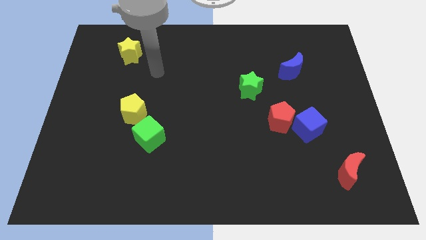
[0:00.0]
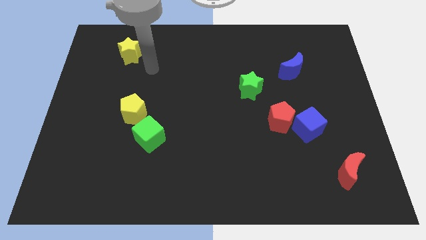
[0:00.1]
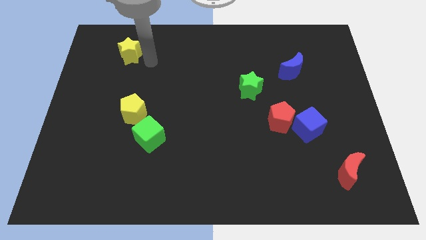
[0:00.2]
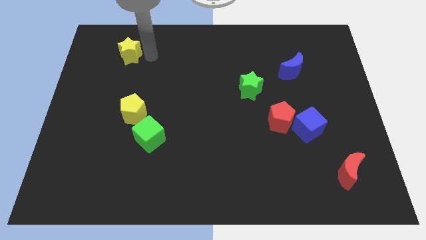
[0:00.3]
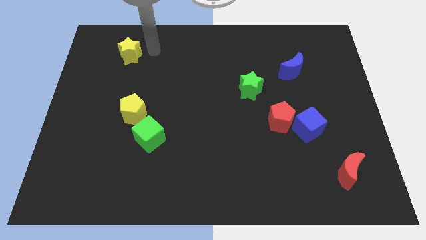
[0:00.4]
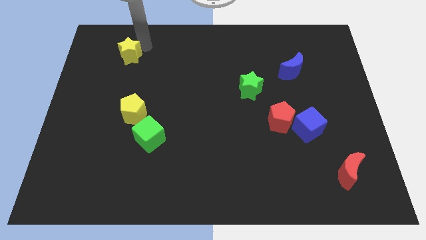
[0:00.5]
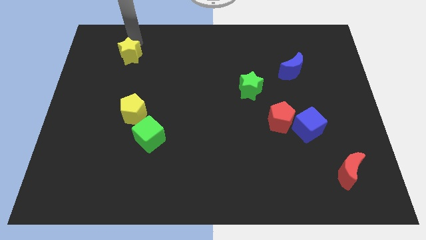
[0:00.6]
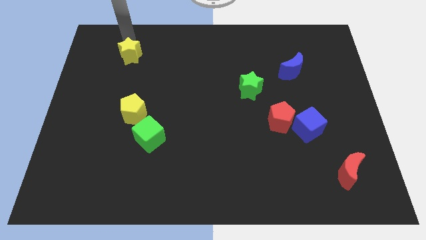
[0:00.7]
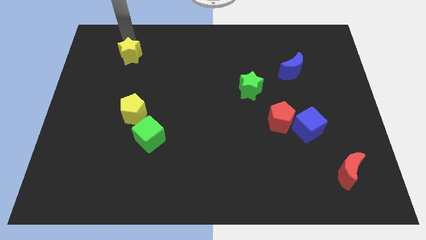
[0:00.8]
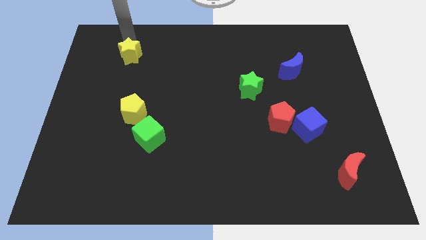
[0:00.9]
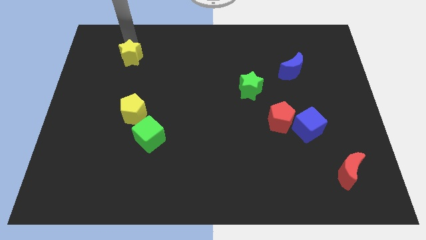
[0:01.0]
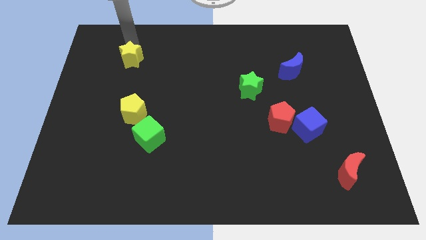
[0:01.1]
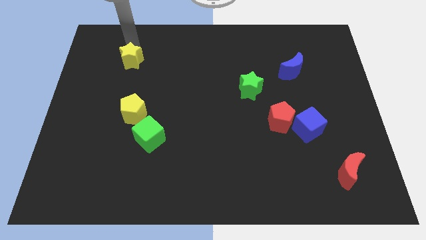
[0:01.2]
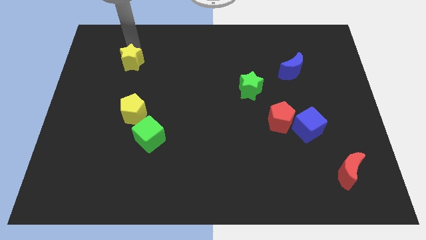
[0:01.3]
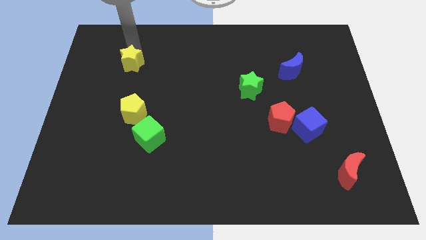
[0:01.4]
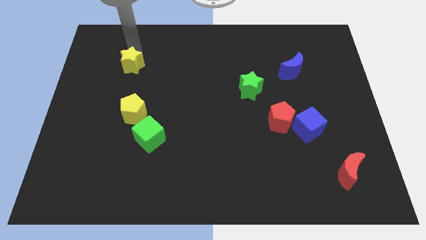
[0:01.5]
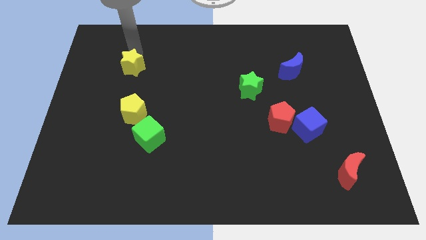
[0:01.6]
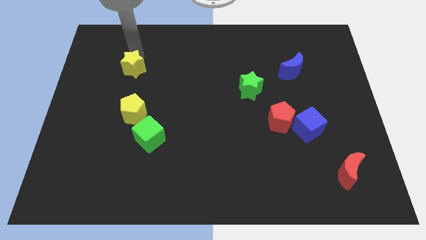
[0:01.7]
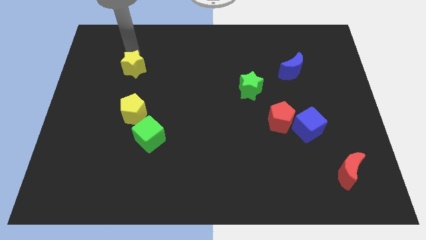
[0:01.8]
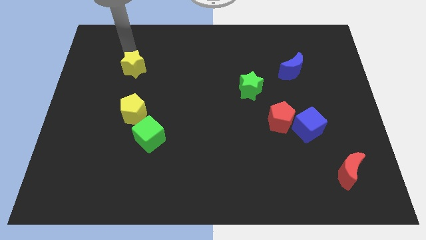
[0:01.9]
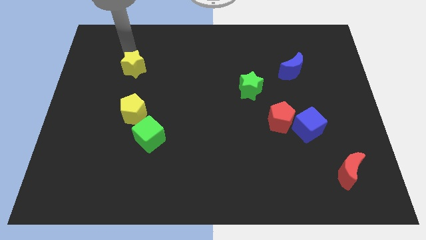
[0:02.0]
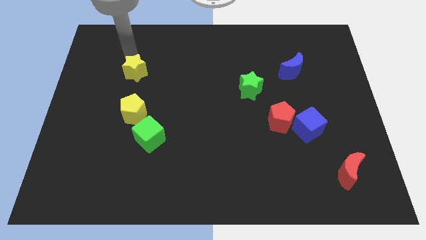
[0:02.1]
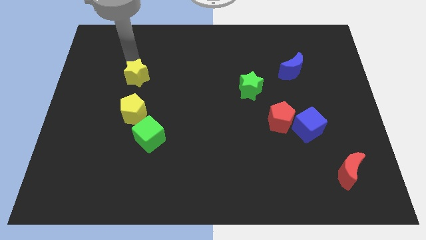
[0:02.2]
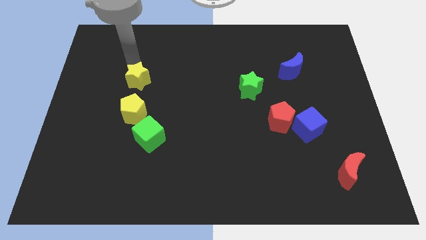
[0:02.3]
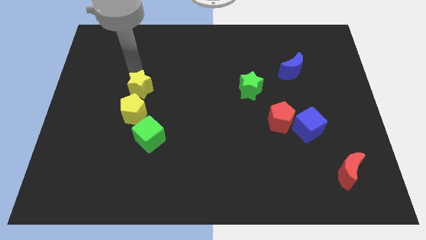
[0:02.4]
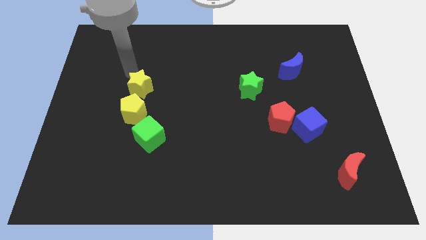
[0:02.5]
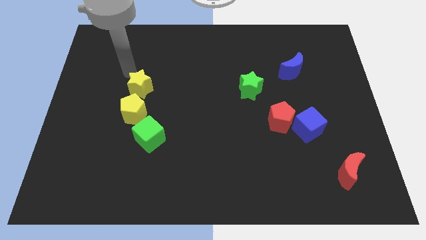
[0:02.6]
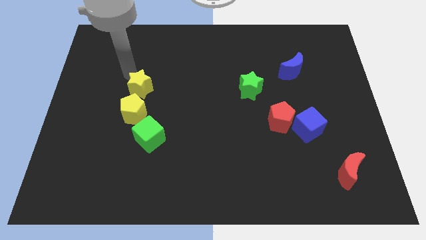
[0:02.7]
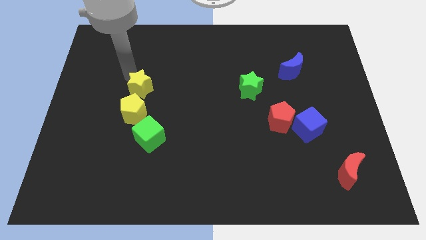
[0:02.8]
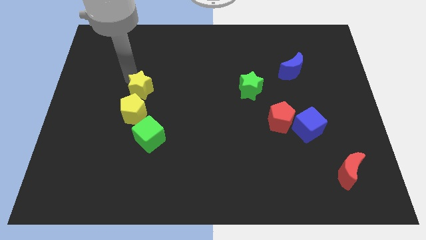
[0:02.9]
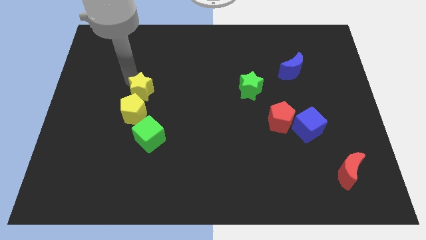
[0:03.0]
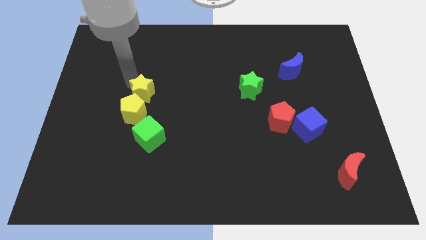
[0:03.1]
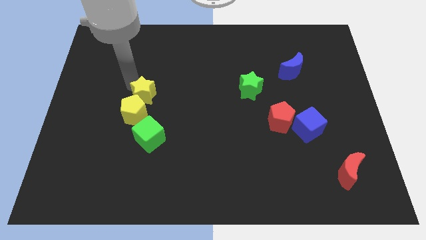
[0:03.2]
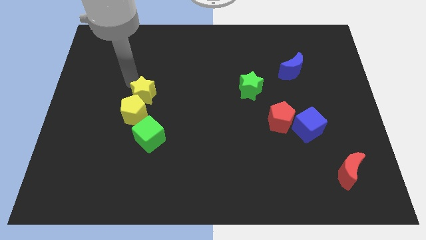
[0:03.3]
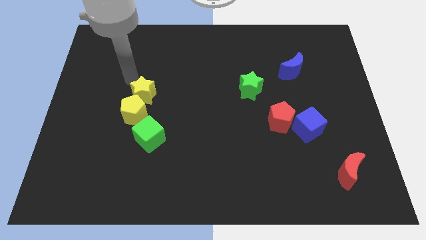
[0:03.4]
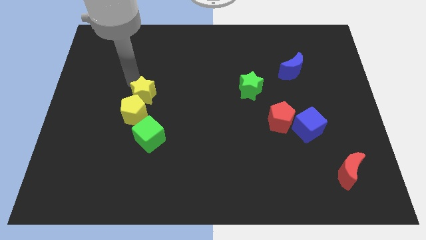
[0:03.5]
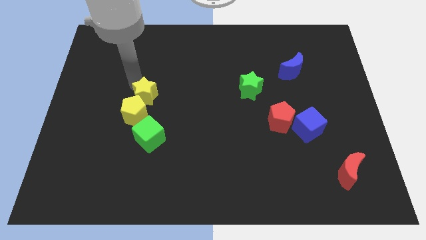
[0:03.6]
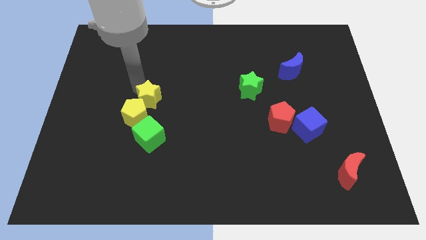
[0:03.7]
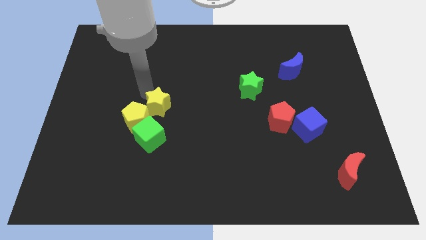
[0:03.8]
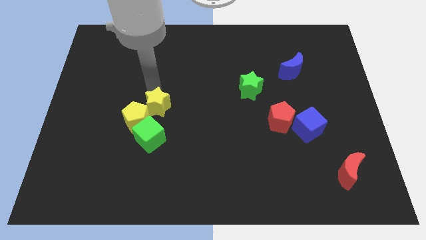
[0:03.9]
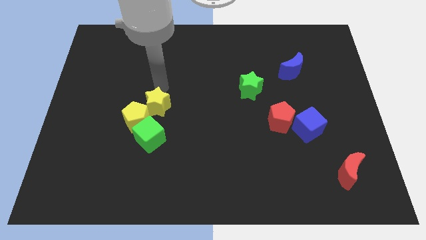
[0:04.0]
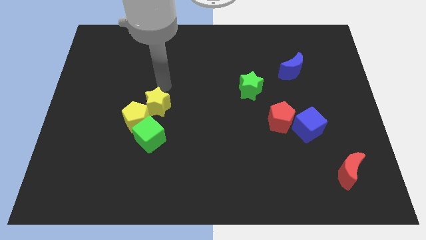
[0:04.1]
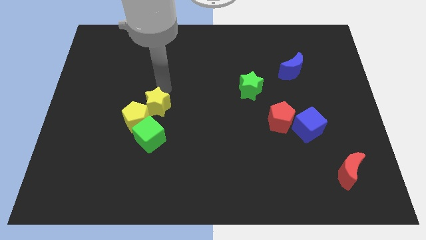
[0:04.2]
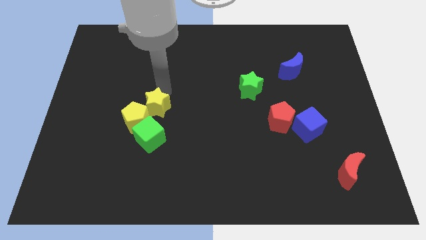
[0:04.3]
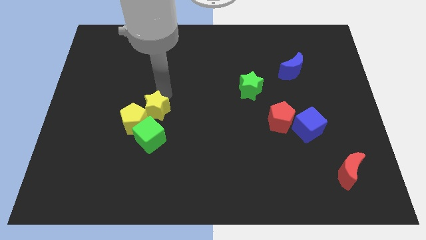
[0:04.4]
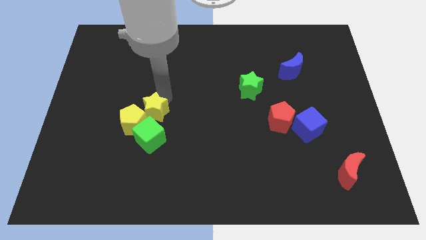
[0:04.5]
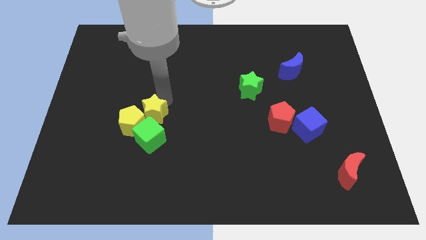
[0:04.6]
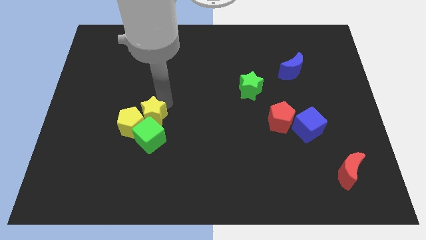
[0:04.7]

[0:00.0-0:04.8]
move the yellow star next to the green cube

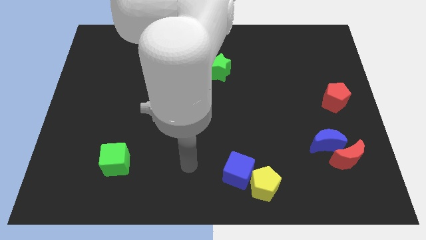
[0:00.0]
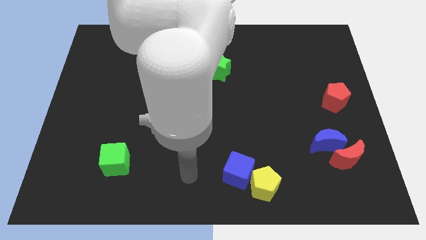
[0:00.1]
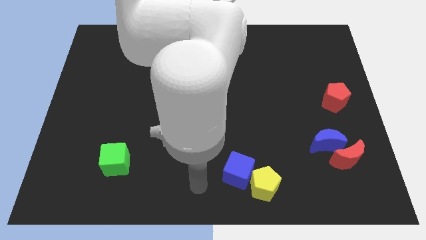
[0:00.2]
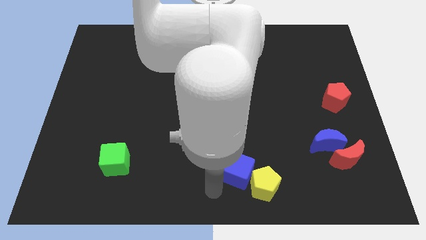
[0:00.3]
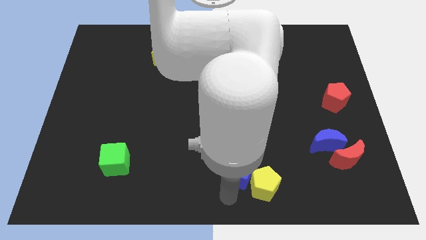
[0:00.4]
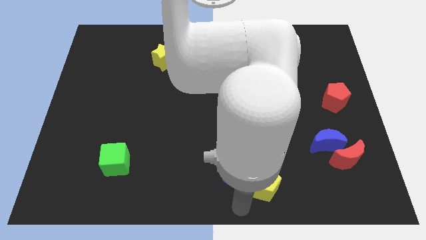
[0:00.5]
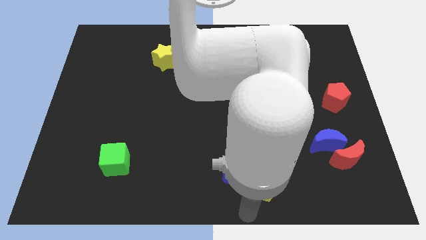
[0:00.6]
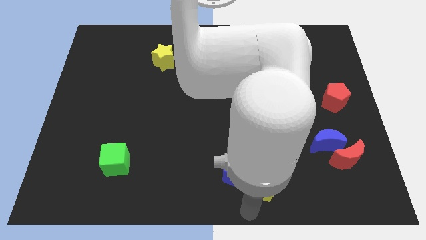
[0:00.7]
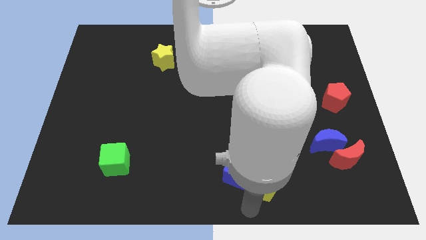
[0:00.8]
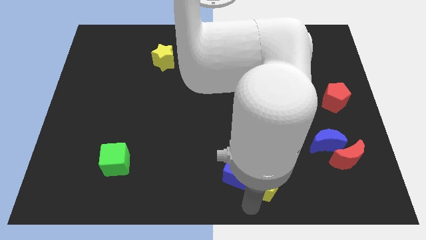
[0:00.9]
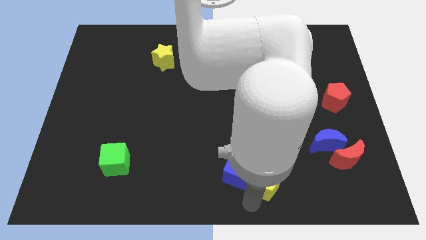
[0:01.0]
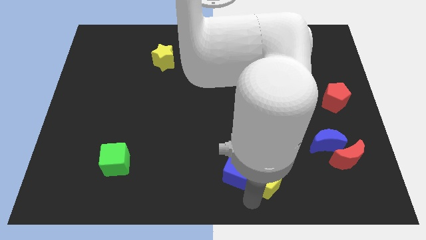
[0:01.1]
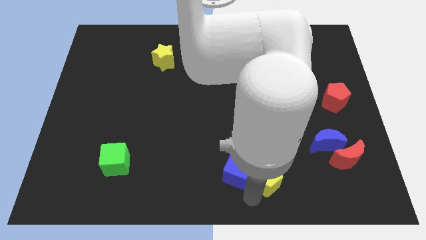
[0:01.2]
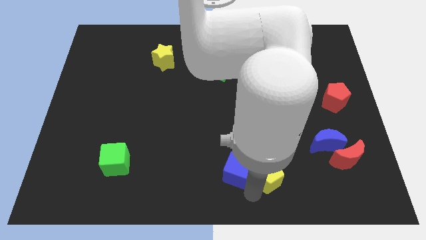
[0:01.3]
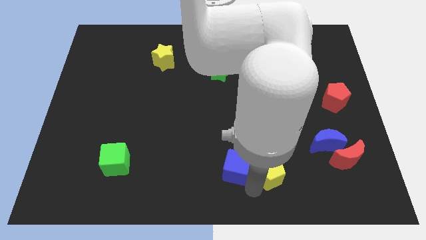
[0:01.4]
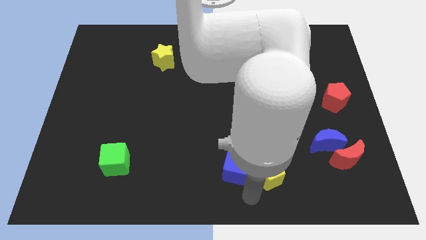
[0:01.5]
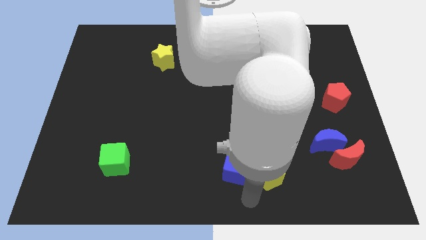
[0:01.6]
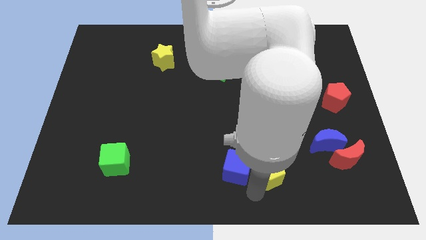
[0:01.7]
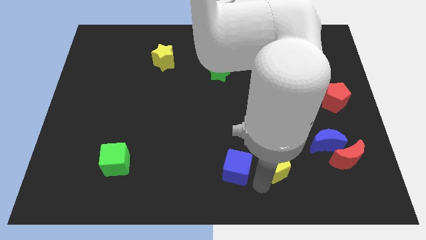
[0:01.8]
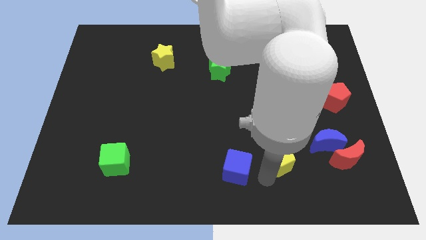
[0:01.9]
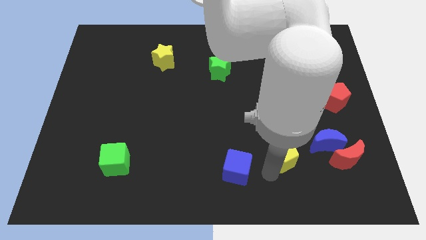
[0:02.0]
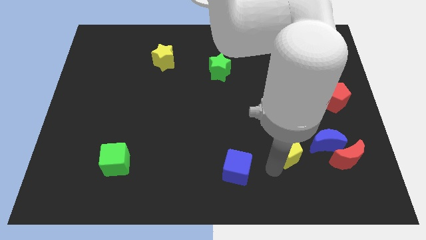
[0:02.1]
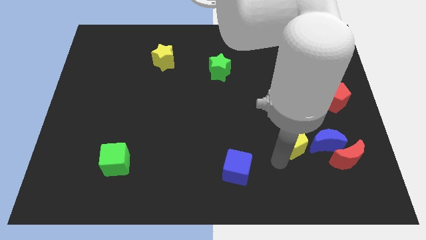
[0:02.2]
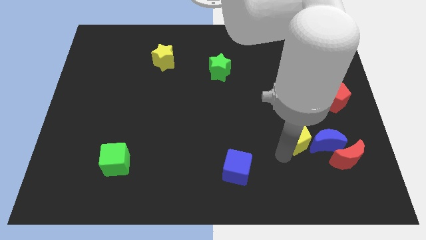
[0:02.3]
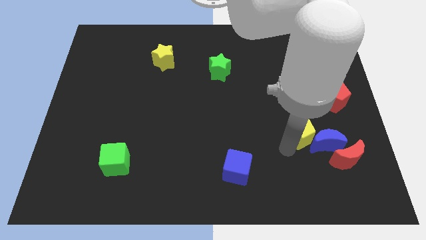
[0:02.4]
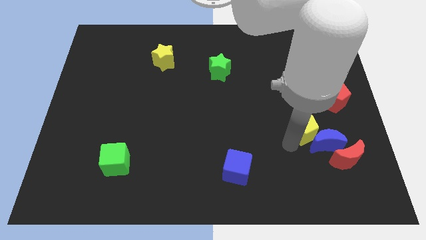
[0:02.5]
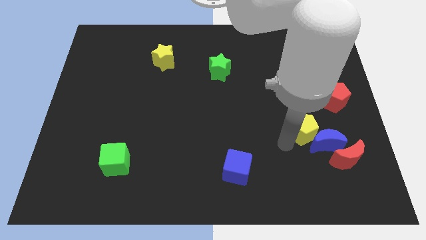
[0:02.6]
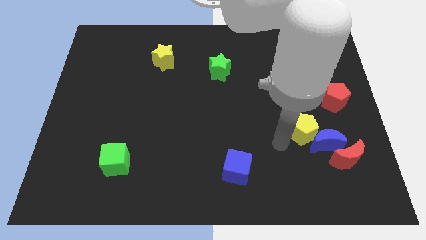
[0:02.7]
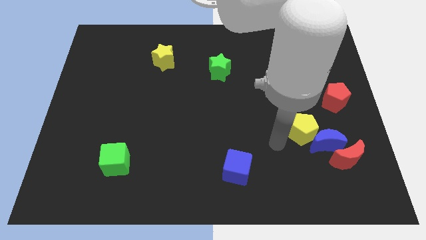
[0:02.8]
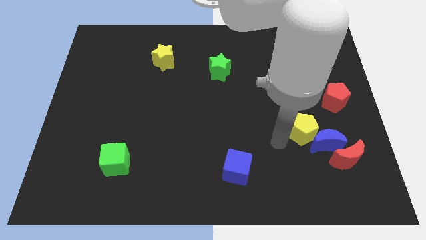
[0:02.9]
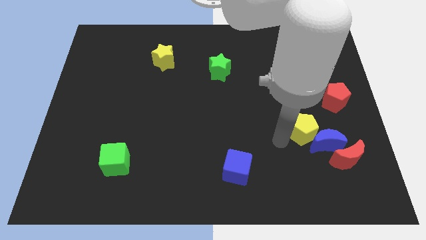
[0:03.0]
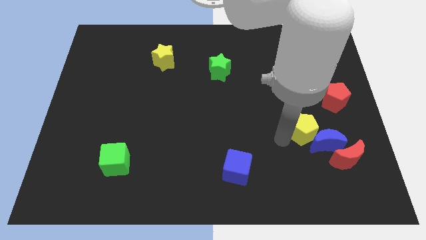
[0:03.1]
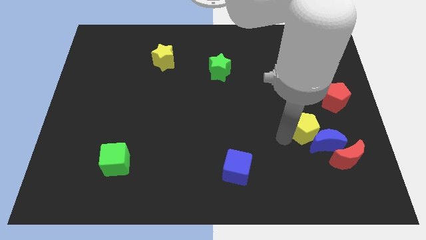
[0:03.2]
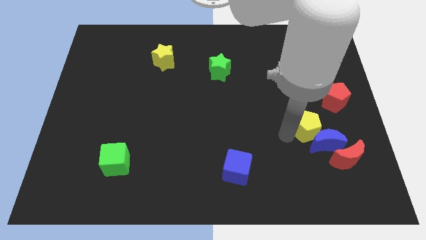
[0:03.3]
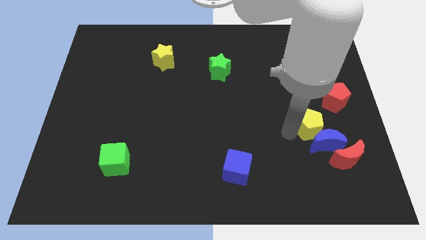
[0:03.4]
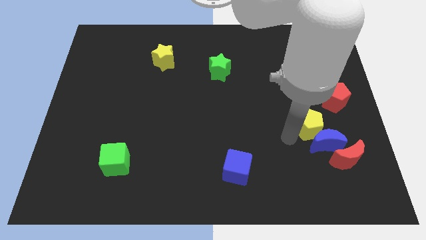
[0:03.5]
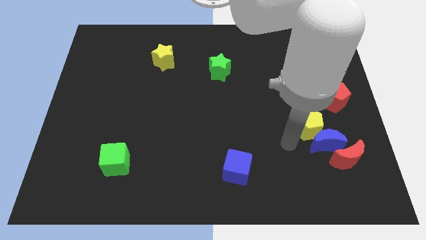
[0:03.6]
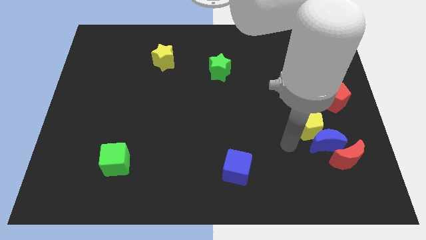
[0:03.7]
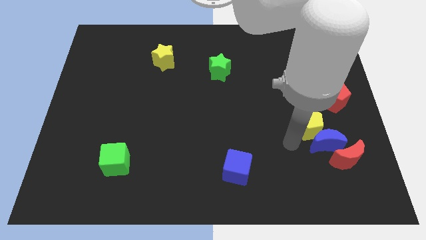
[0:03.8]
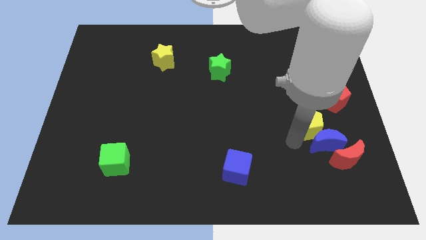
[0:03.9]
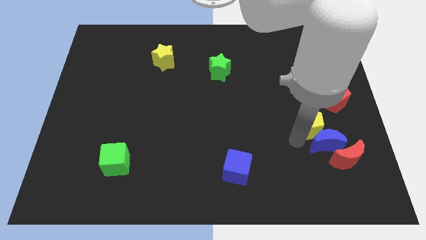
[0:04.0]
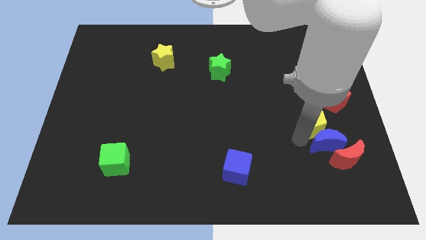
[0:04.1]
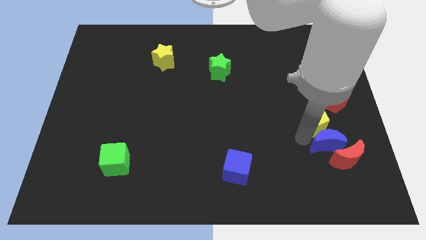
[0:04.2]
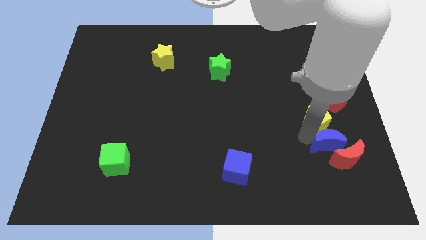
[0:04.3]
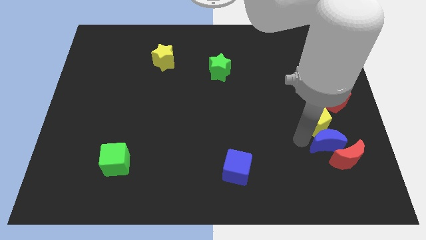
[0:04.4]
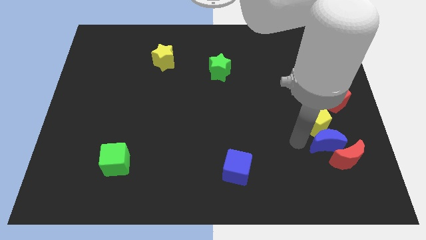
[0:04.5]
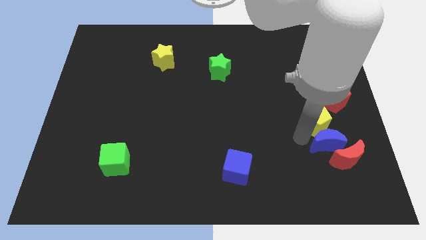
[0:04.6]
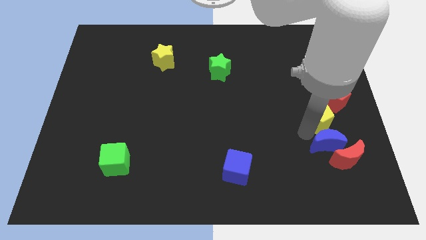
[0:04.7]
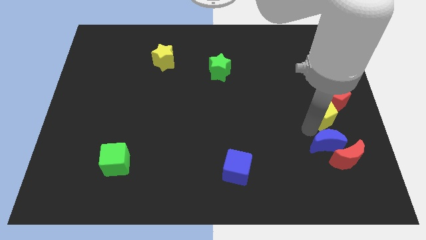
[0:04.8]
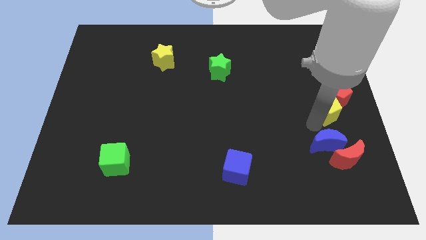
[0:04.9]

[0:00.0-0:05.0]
put the yellow pentagon close to the red pentagon
